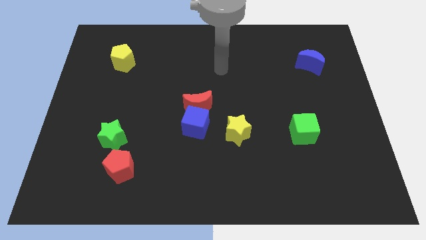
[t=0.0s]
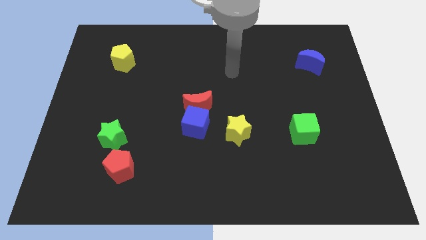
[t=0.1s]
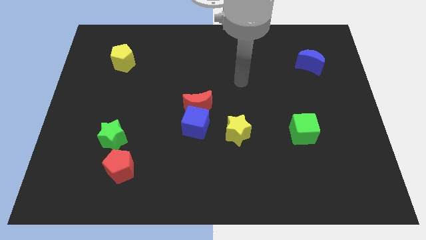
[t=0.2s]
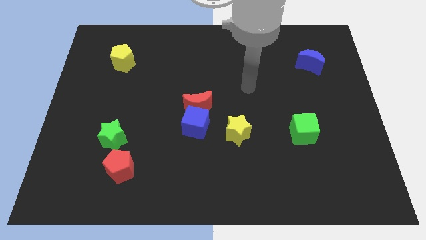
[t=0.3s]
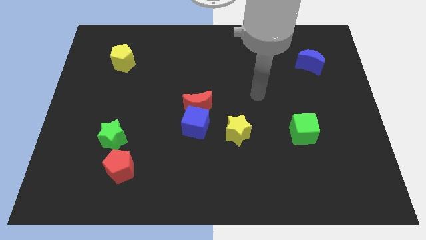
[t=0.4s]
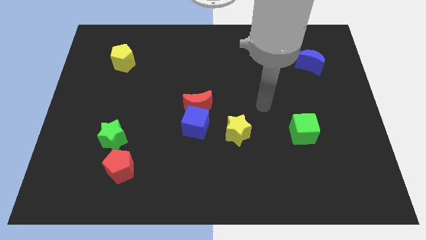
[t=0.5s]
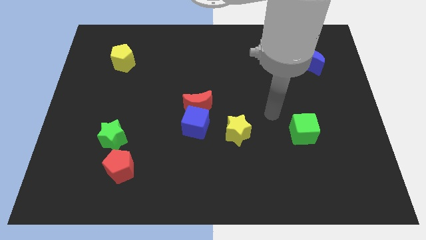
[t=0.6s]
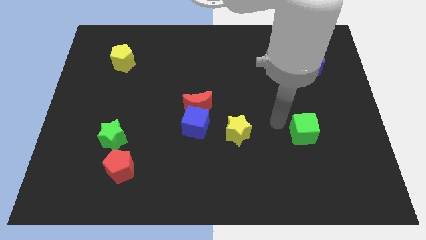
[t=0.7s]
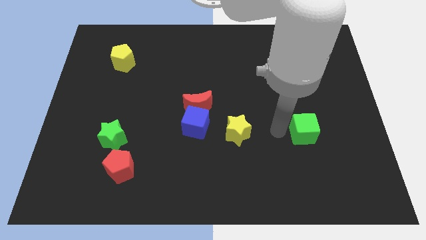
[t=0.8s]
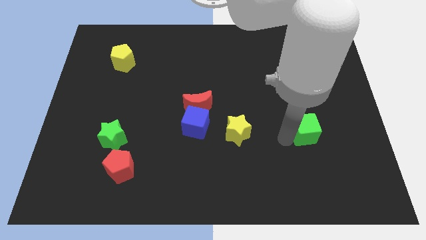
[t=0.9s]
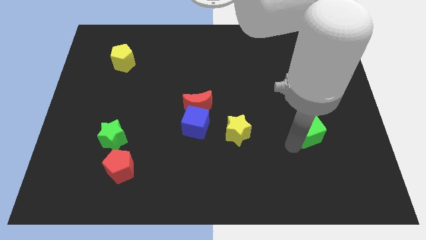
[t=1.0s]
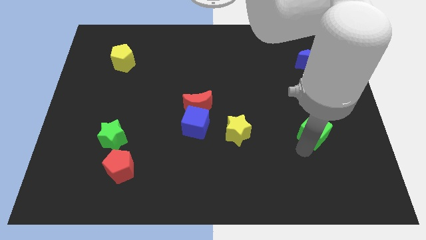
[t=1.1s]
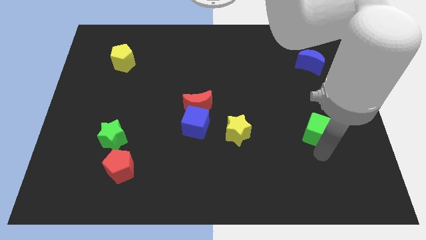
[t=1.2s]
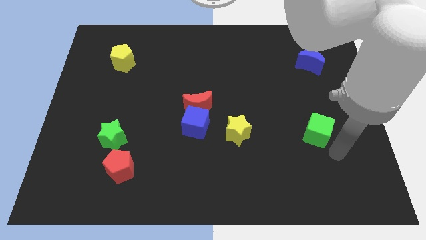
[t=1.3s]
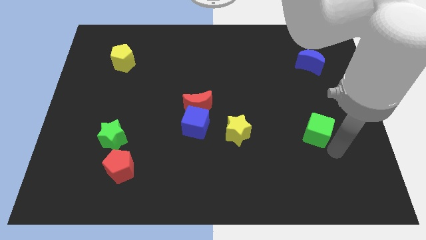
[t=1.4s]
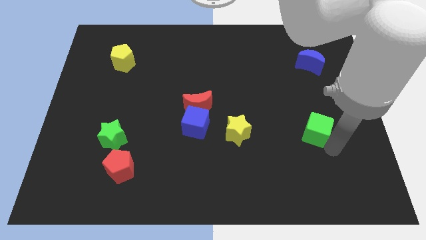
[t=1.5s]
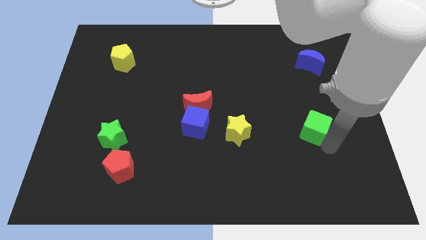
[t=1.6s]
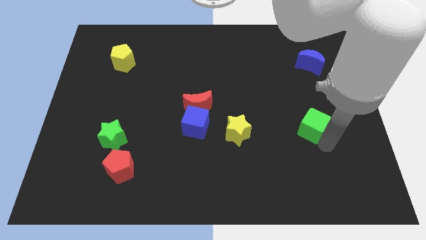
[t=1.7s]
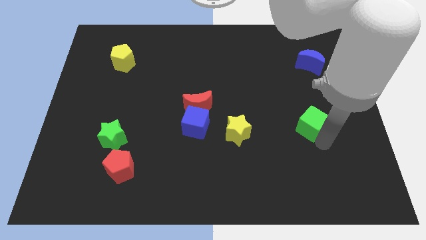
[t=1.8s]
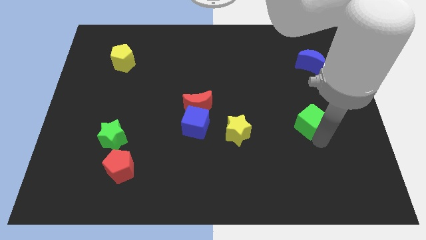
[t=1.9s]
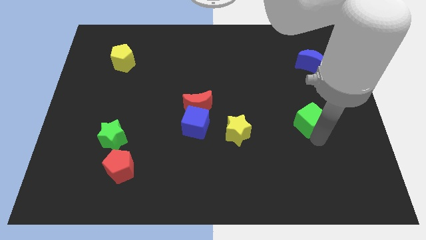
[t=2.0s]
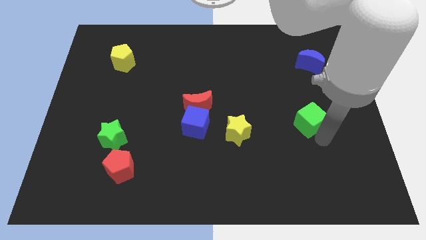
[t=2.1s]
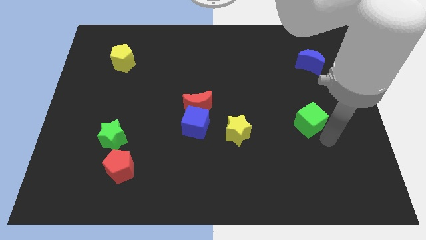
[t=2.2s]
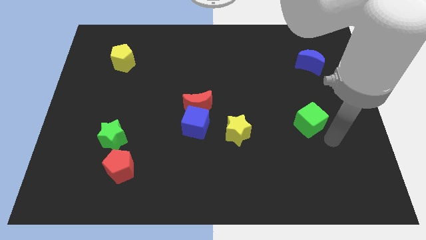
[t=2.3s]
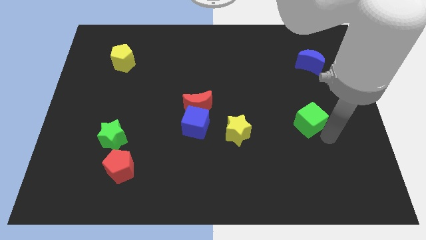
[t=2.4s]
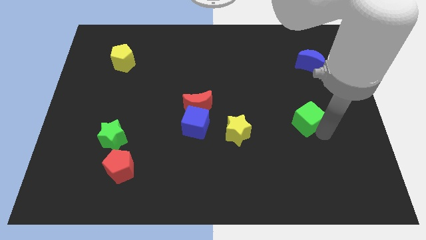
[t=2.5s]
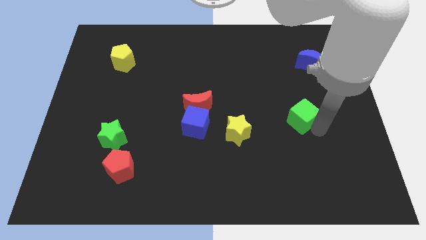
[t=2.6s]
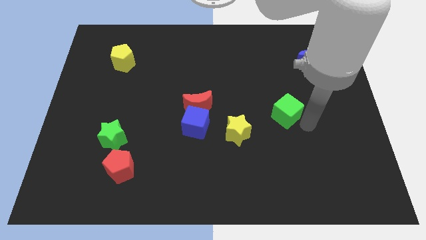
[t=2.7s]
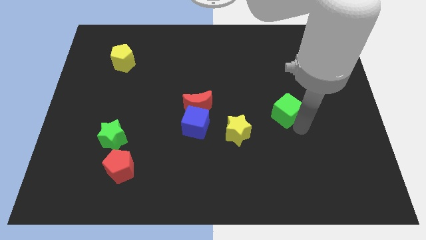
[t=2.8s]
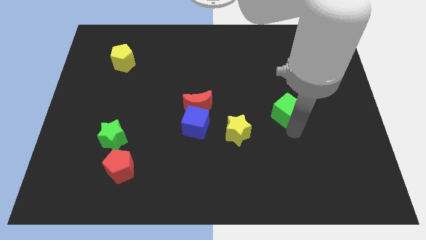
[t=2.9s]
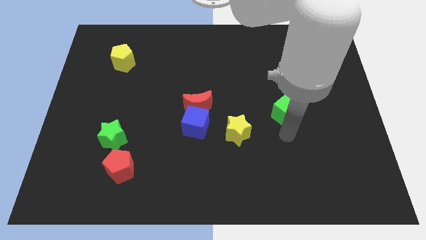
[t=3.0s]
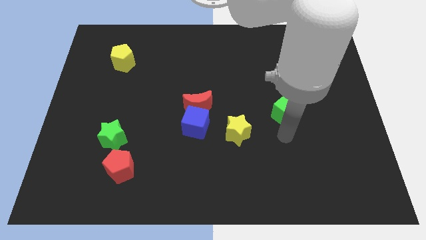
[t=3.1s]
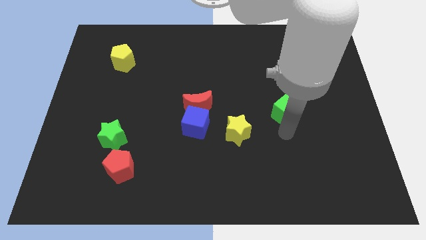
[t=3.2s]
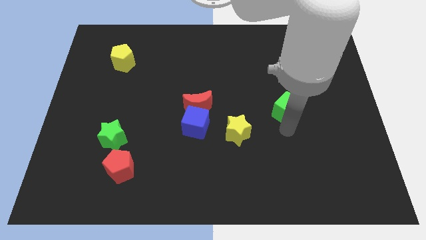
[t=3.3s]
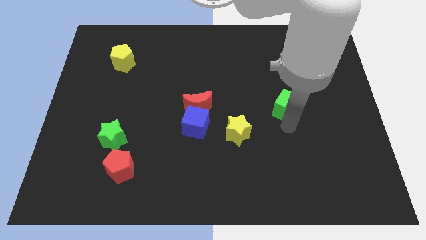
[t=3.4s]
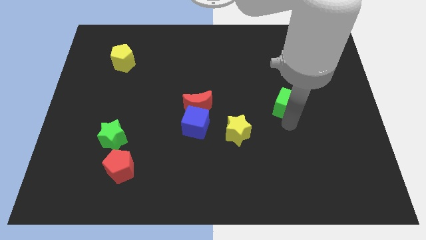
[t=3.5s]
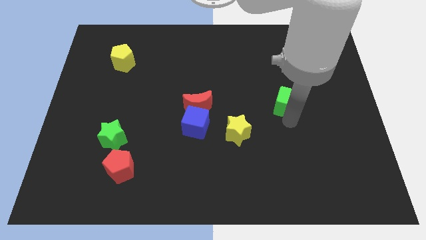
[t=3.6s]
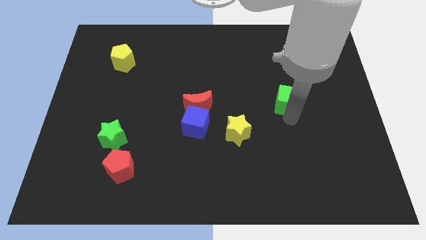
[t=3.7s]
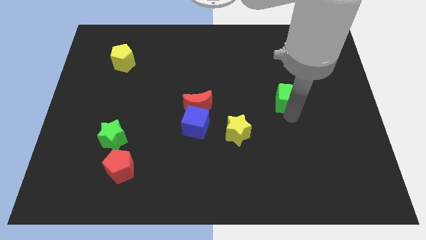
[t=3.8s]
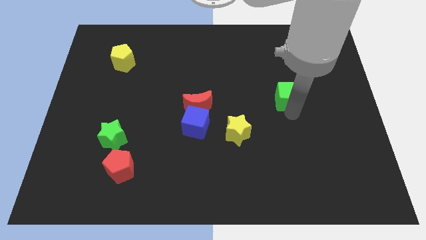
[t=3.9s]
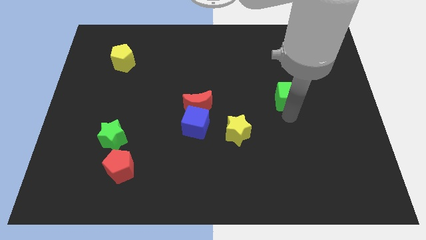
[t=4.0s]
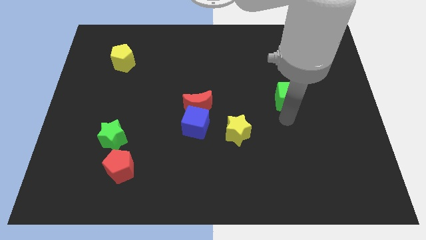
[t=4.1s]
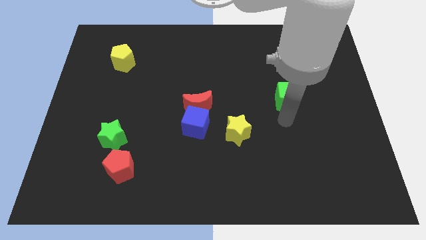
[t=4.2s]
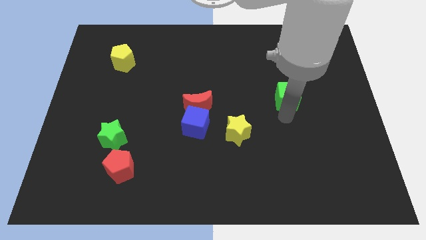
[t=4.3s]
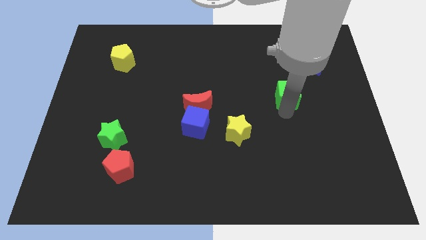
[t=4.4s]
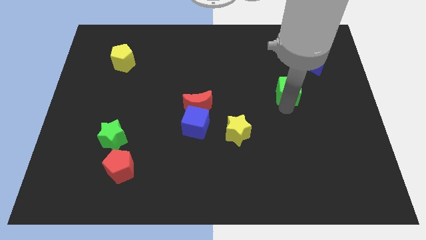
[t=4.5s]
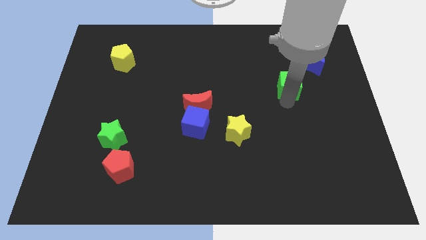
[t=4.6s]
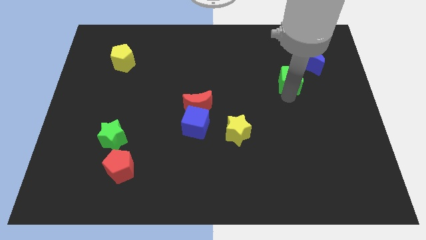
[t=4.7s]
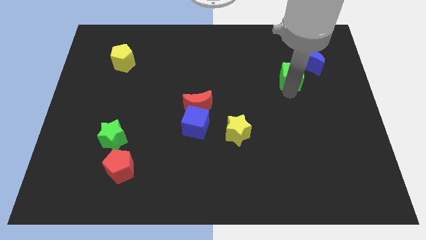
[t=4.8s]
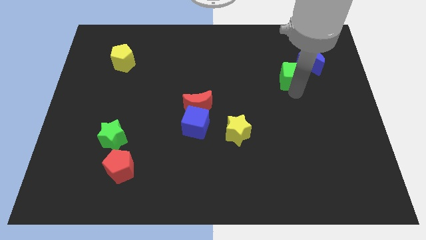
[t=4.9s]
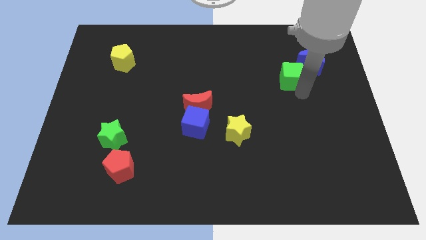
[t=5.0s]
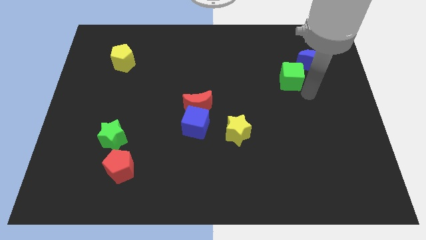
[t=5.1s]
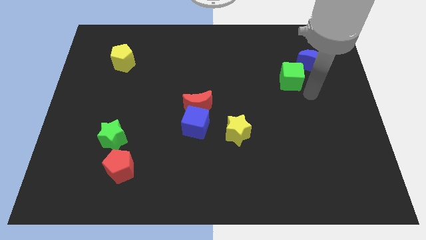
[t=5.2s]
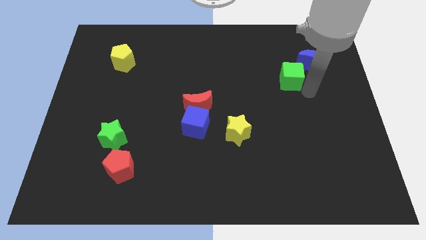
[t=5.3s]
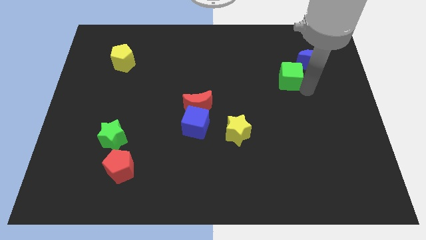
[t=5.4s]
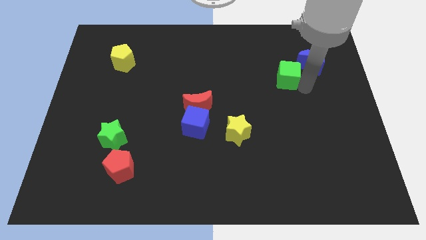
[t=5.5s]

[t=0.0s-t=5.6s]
slide the green cube to the left side of the blue moon
